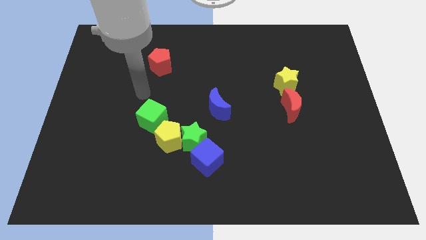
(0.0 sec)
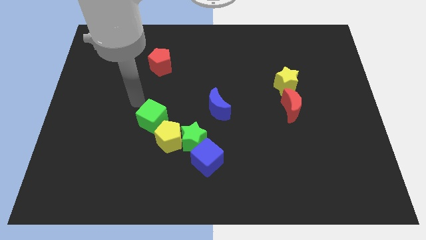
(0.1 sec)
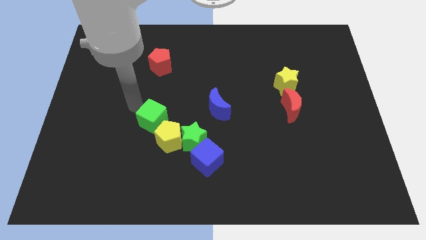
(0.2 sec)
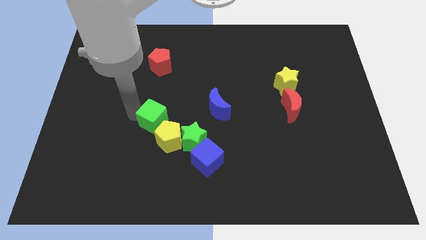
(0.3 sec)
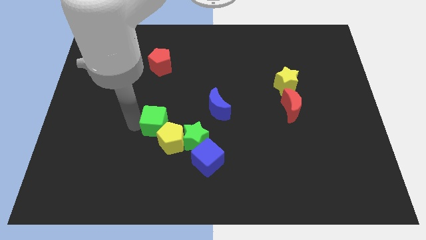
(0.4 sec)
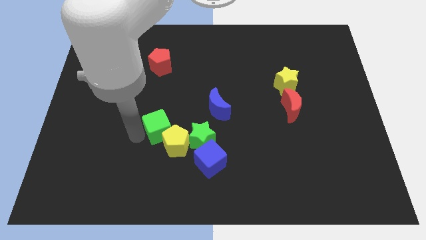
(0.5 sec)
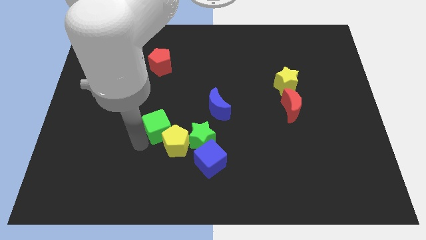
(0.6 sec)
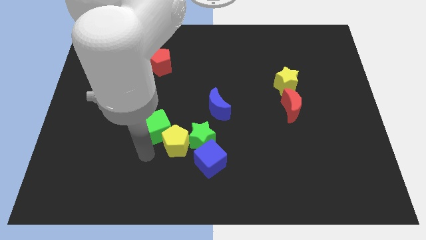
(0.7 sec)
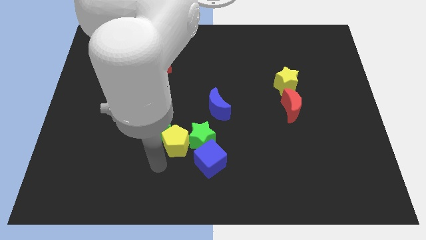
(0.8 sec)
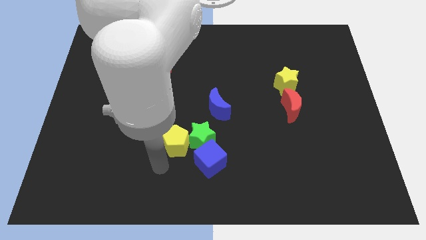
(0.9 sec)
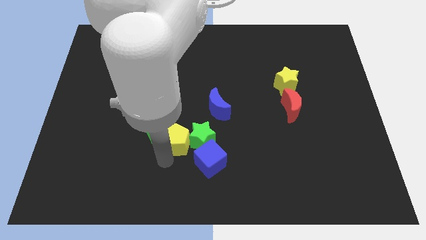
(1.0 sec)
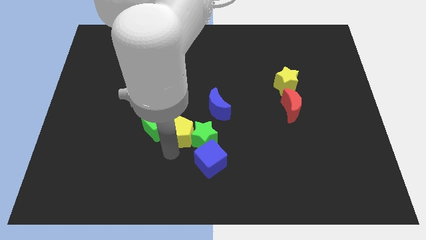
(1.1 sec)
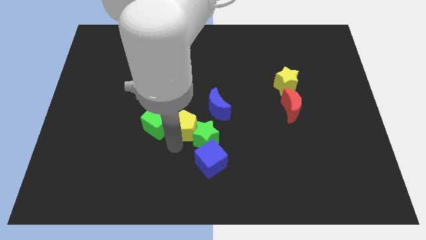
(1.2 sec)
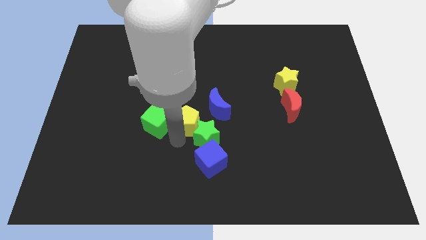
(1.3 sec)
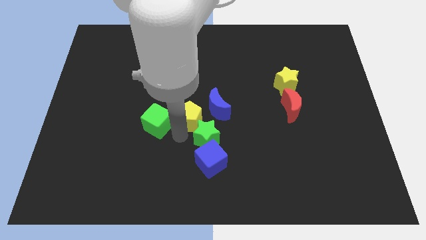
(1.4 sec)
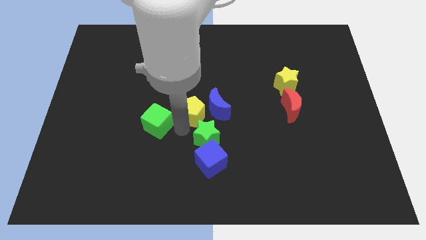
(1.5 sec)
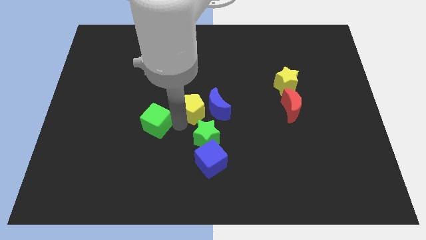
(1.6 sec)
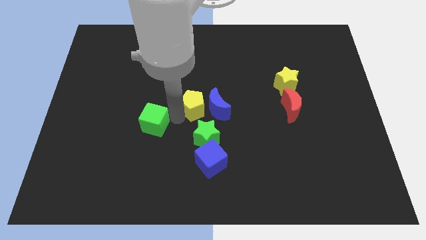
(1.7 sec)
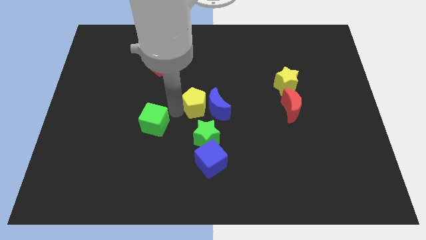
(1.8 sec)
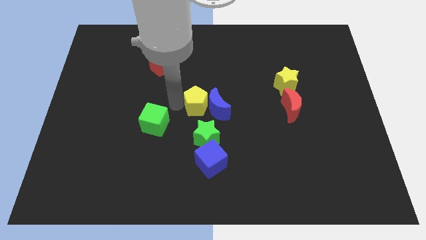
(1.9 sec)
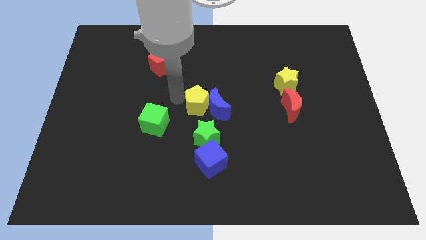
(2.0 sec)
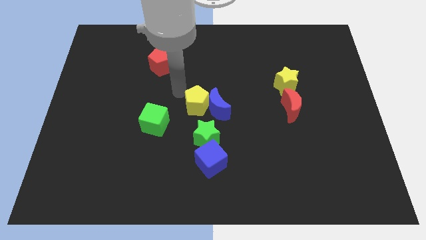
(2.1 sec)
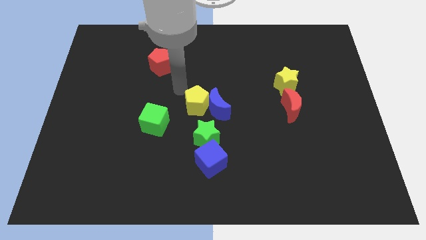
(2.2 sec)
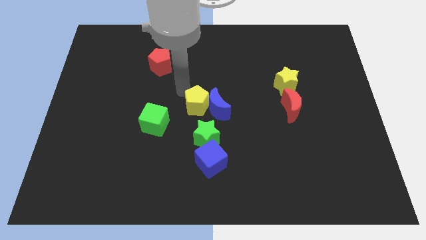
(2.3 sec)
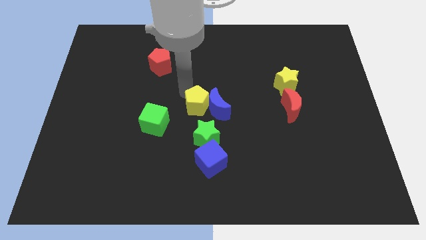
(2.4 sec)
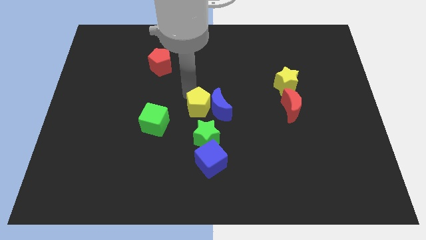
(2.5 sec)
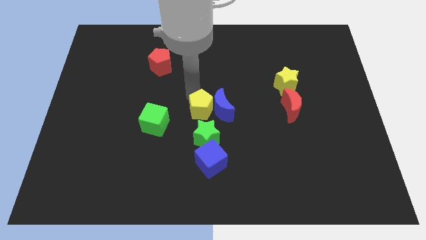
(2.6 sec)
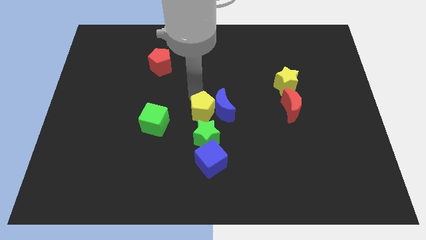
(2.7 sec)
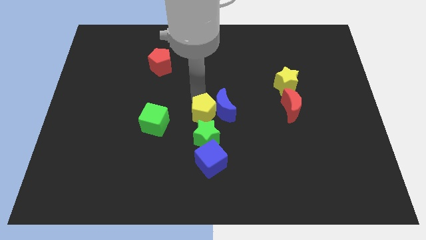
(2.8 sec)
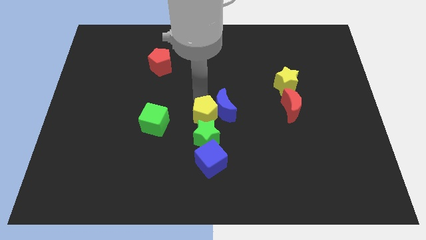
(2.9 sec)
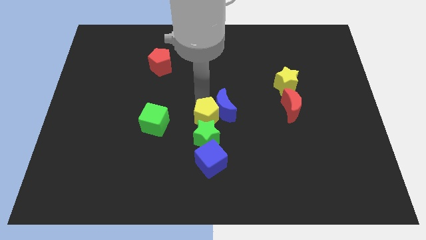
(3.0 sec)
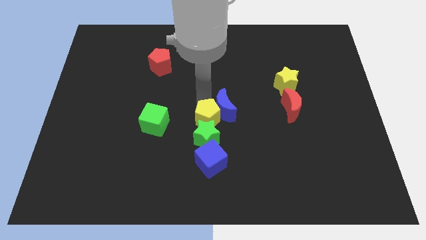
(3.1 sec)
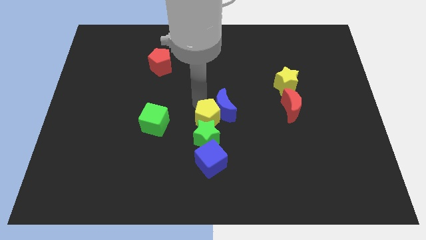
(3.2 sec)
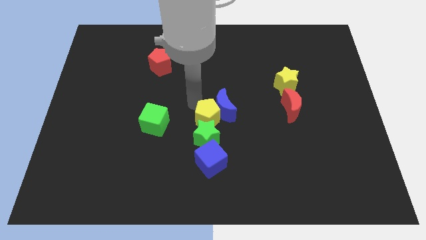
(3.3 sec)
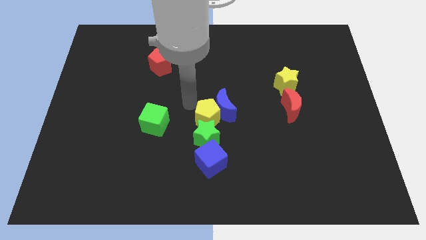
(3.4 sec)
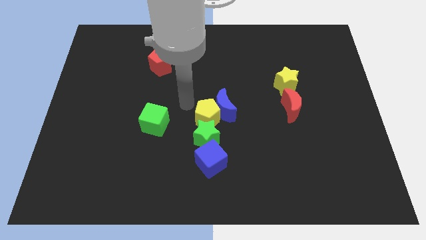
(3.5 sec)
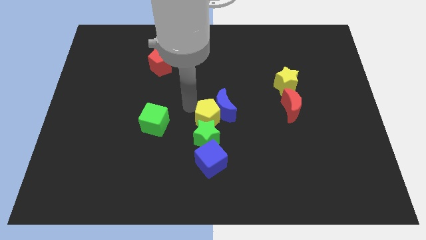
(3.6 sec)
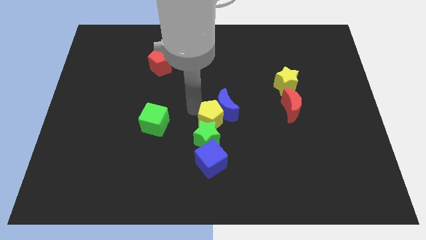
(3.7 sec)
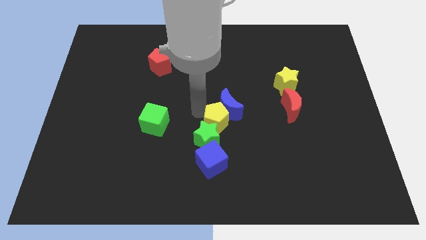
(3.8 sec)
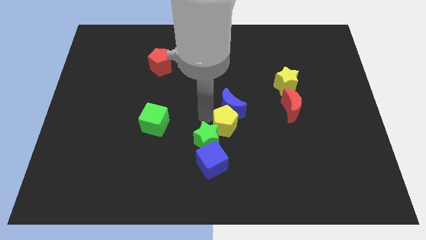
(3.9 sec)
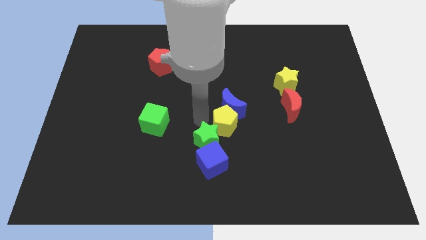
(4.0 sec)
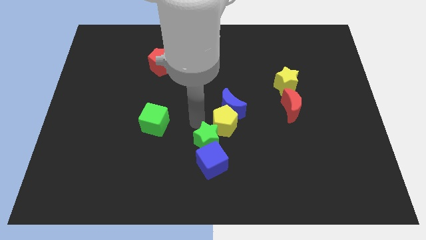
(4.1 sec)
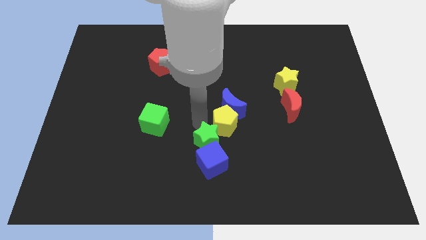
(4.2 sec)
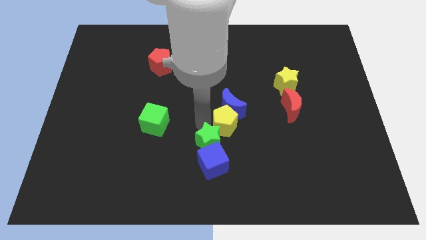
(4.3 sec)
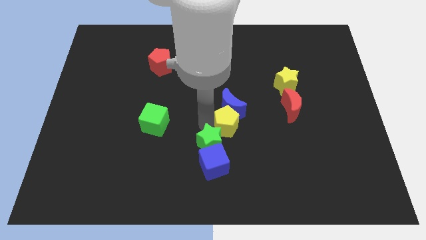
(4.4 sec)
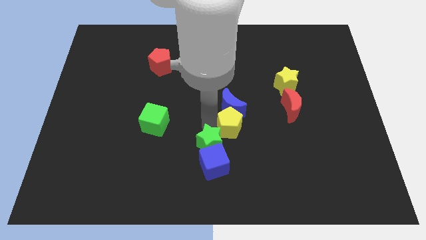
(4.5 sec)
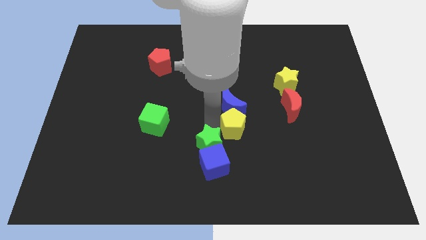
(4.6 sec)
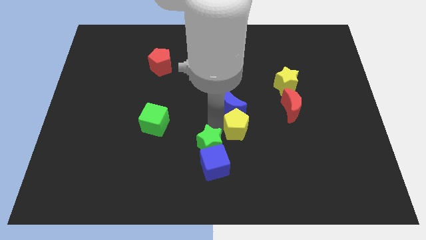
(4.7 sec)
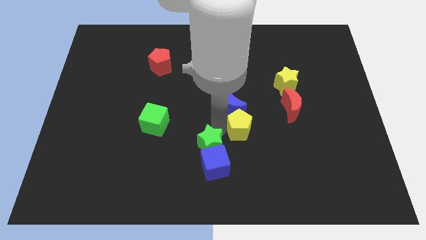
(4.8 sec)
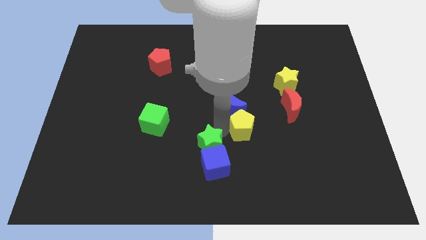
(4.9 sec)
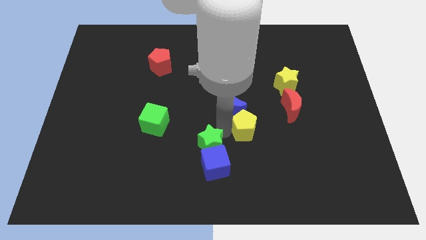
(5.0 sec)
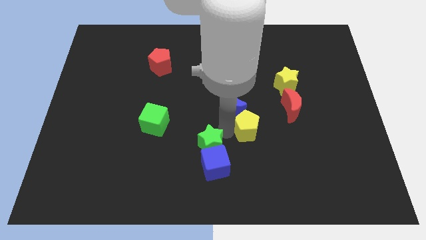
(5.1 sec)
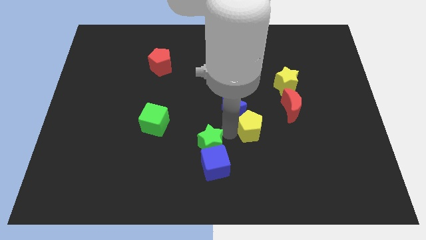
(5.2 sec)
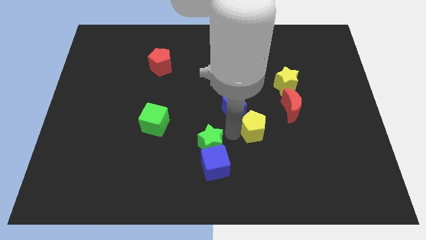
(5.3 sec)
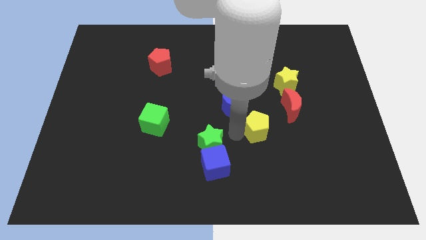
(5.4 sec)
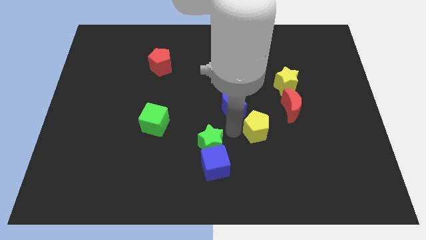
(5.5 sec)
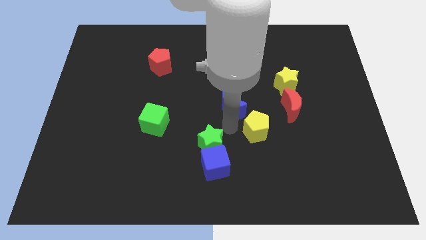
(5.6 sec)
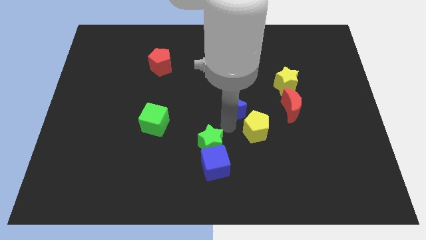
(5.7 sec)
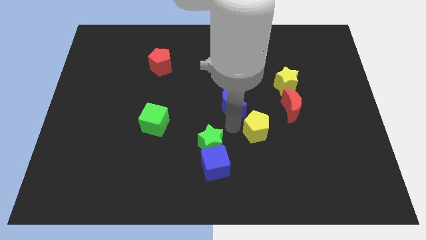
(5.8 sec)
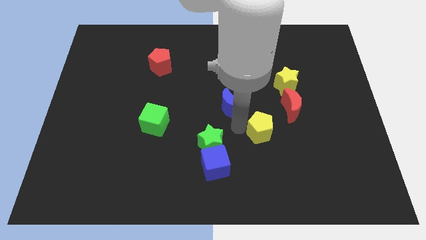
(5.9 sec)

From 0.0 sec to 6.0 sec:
move the yellow pentagon right

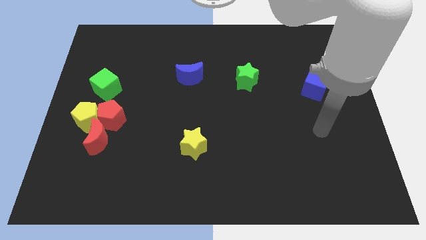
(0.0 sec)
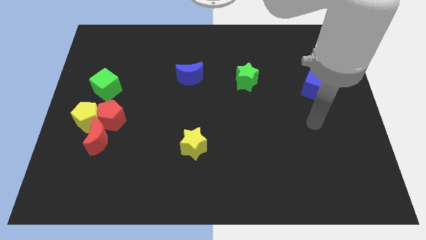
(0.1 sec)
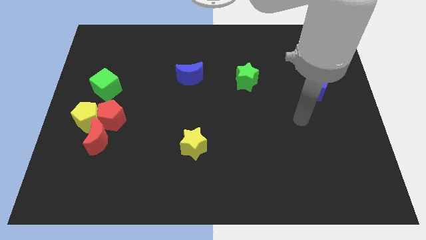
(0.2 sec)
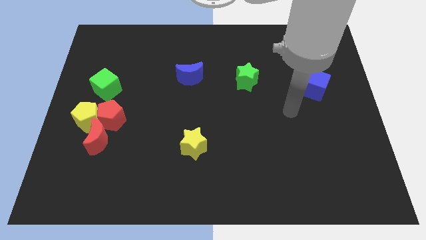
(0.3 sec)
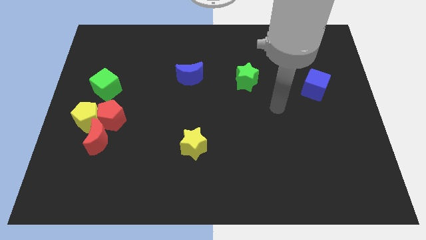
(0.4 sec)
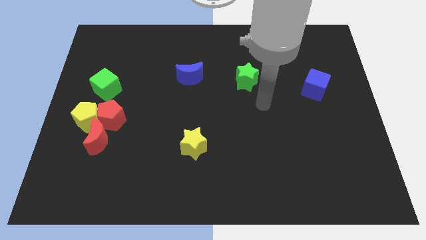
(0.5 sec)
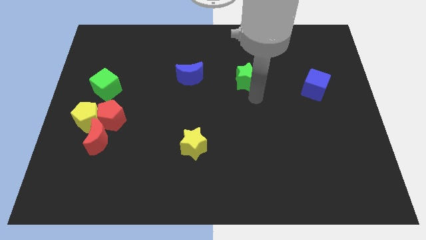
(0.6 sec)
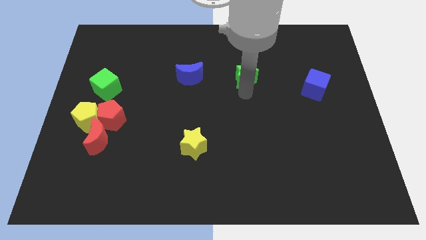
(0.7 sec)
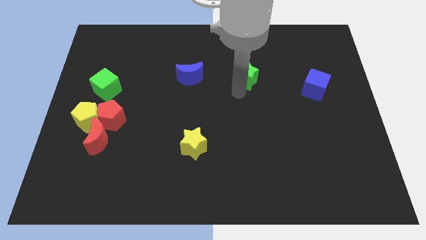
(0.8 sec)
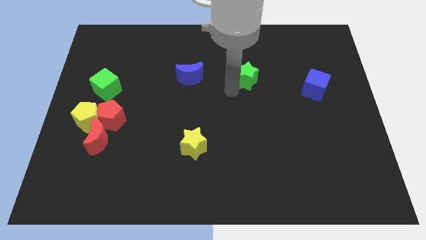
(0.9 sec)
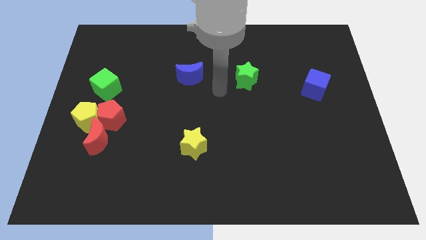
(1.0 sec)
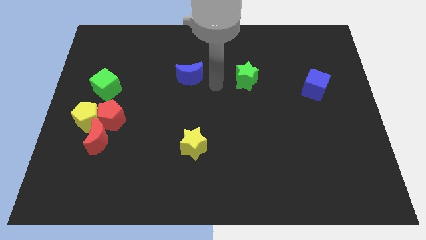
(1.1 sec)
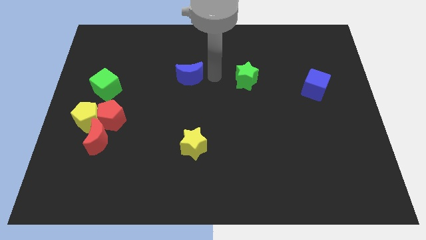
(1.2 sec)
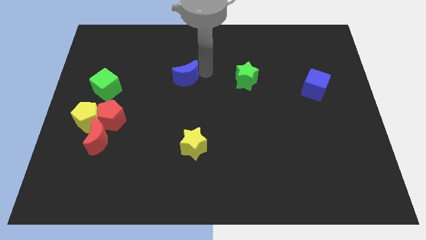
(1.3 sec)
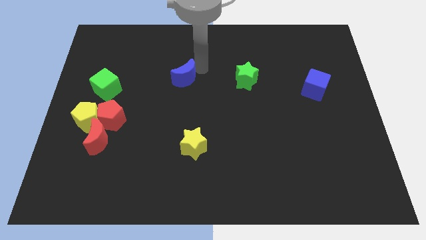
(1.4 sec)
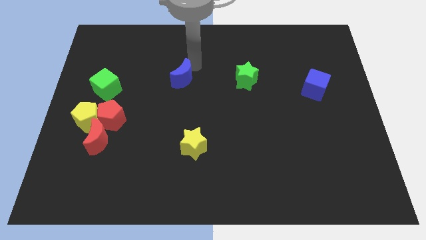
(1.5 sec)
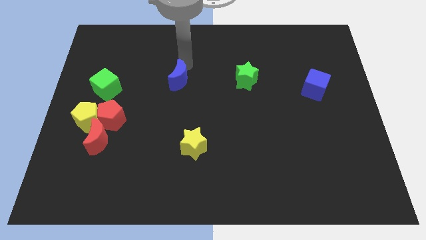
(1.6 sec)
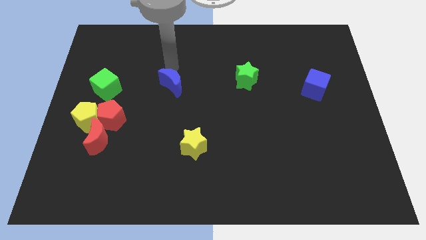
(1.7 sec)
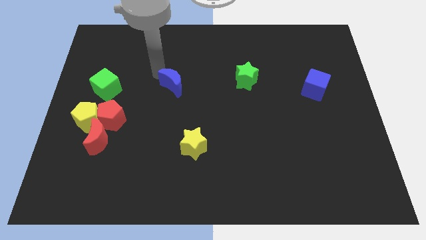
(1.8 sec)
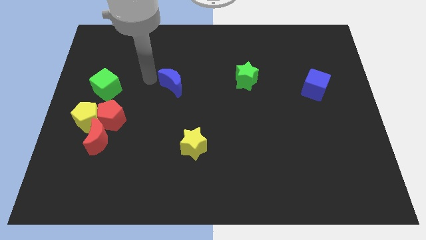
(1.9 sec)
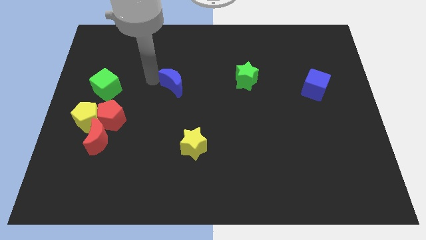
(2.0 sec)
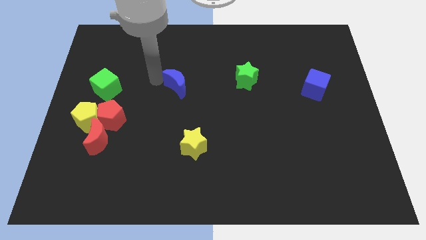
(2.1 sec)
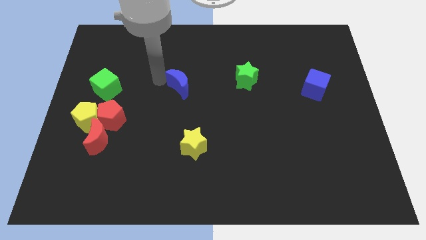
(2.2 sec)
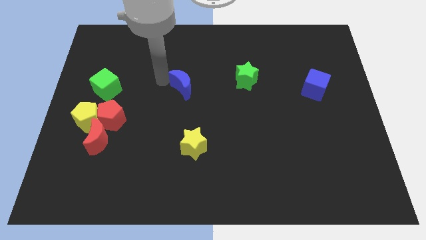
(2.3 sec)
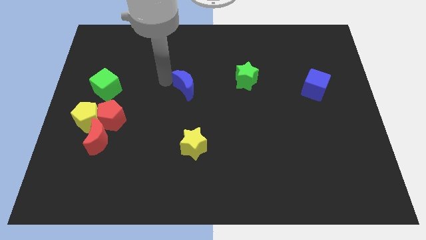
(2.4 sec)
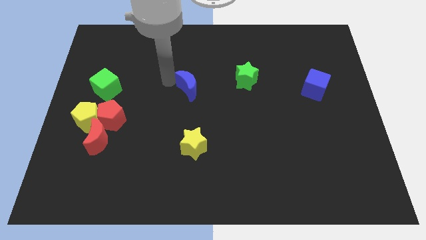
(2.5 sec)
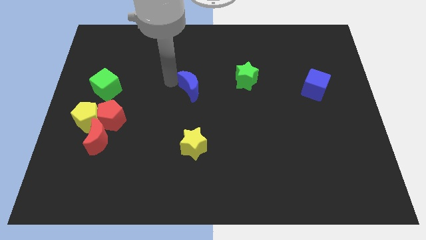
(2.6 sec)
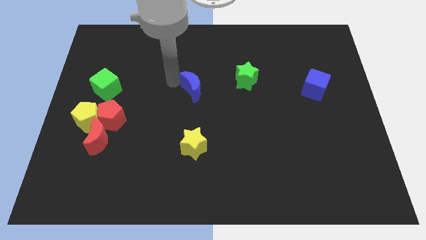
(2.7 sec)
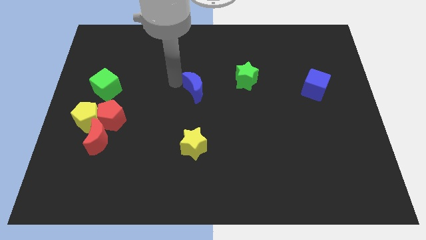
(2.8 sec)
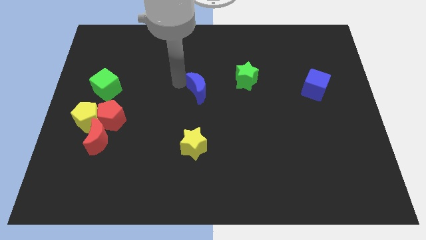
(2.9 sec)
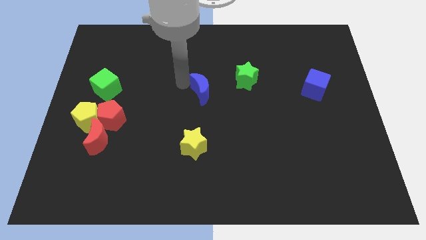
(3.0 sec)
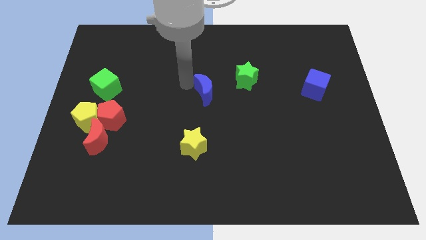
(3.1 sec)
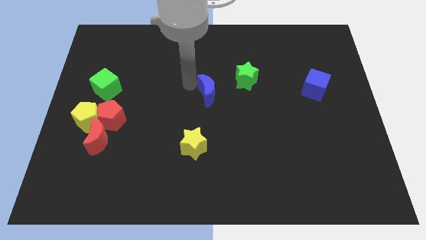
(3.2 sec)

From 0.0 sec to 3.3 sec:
push the blue moon downwards and to the right slightly
